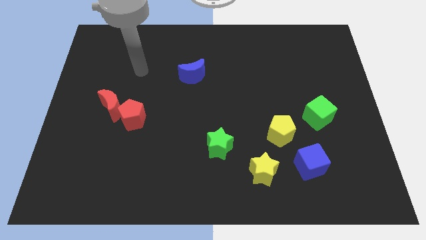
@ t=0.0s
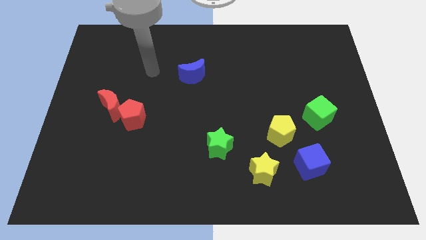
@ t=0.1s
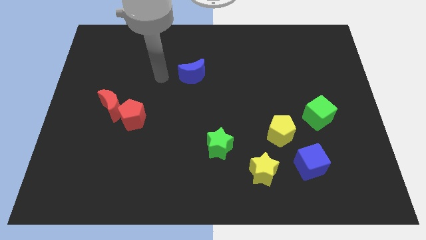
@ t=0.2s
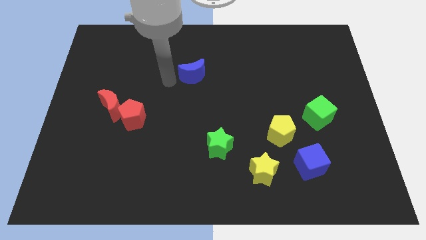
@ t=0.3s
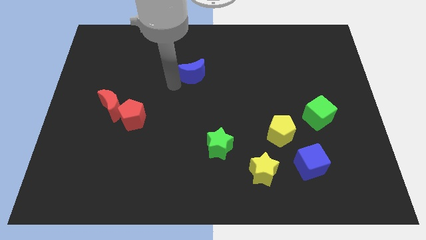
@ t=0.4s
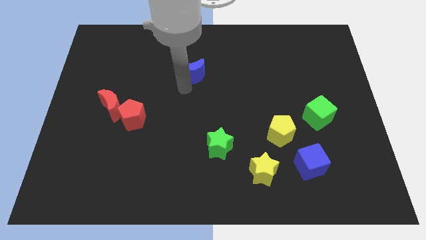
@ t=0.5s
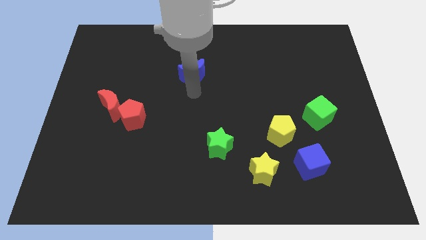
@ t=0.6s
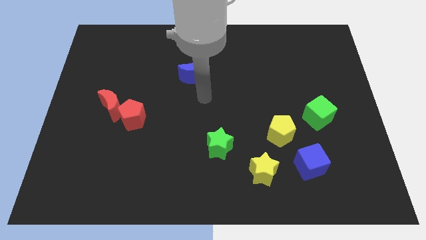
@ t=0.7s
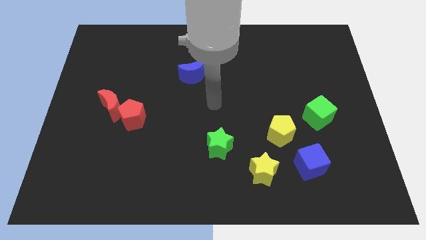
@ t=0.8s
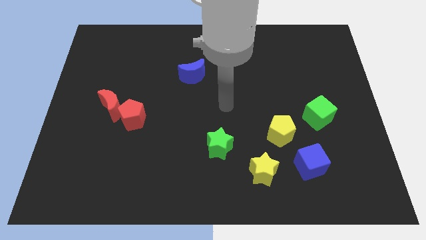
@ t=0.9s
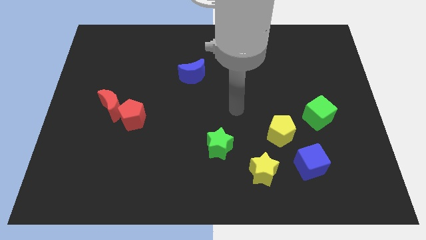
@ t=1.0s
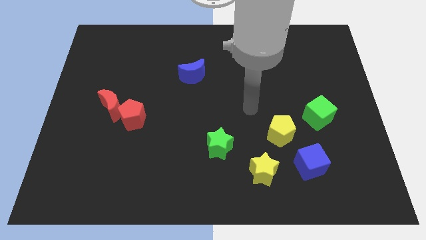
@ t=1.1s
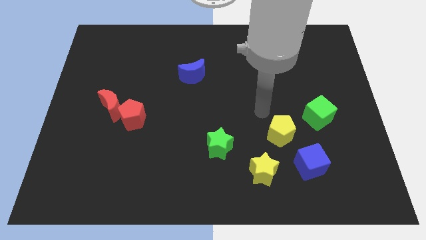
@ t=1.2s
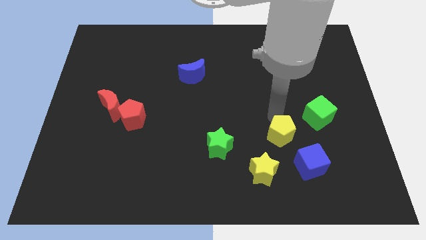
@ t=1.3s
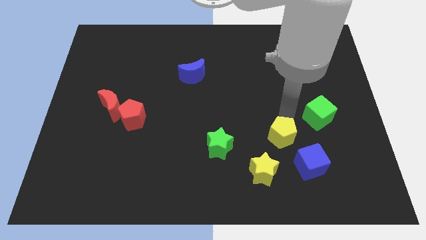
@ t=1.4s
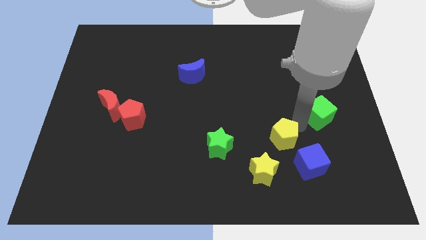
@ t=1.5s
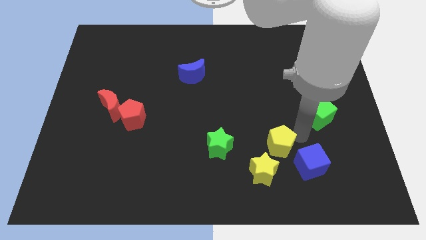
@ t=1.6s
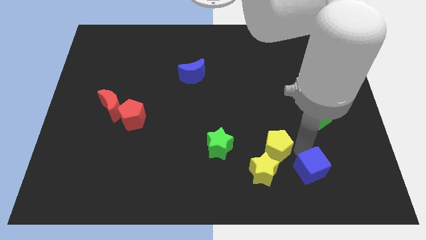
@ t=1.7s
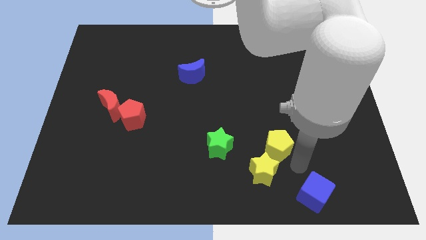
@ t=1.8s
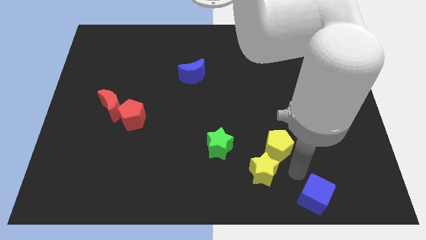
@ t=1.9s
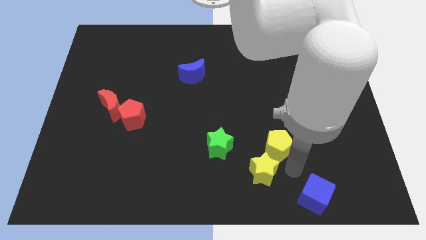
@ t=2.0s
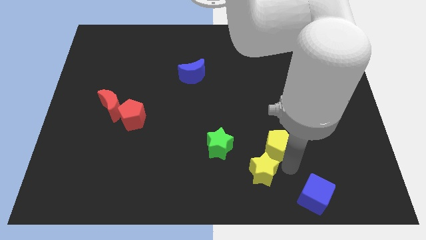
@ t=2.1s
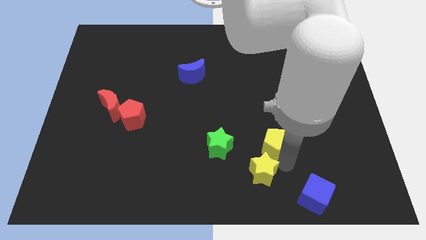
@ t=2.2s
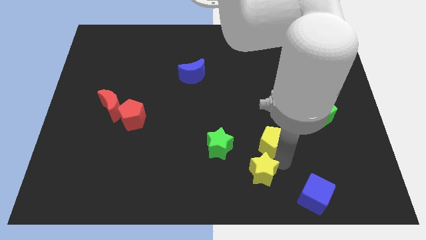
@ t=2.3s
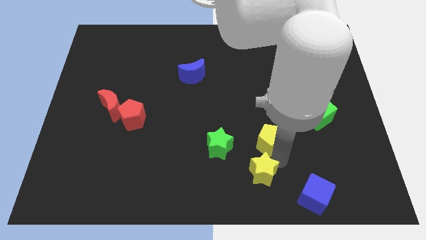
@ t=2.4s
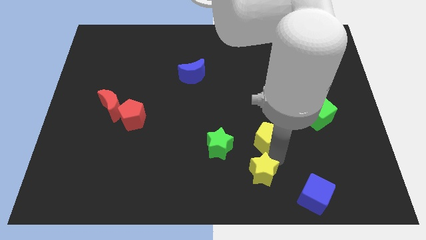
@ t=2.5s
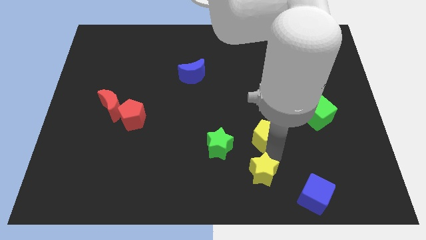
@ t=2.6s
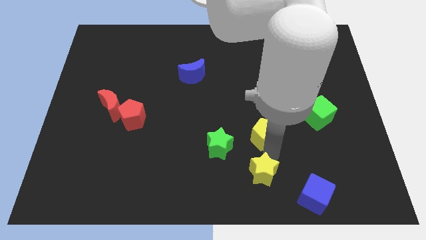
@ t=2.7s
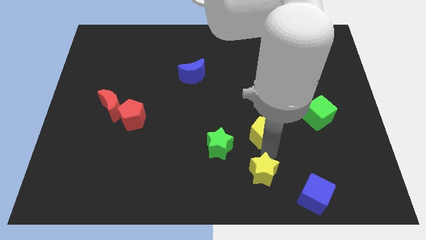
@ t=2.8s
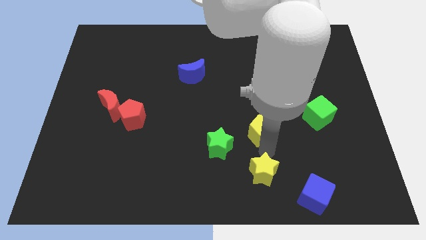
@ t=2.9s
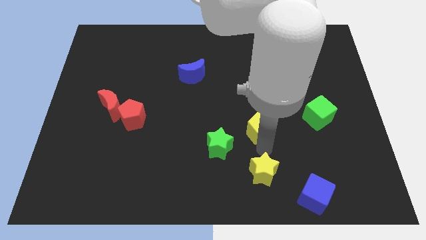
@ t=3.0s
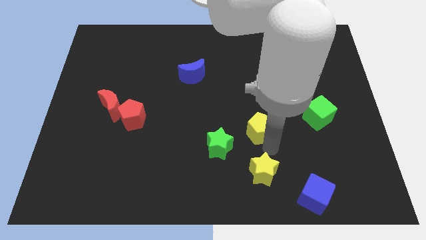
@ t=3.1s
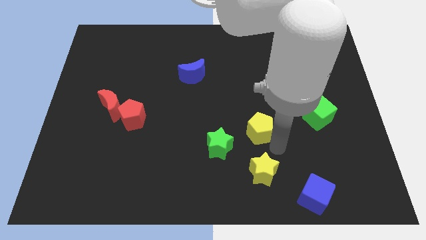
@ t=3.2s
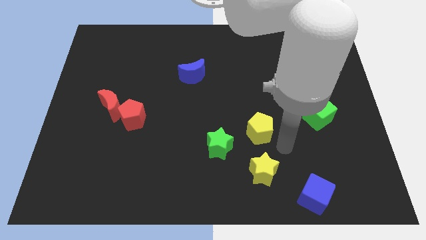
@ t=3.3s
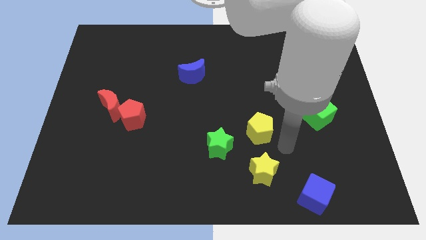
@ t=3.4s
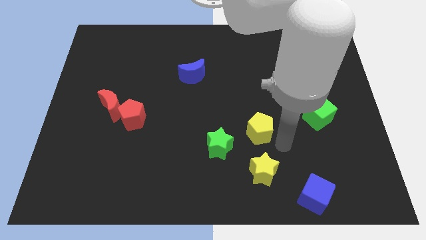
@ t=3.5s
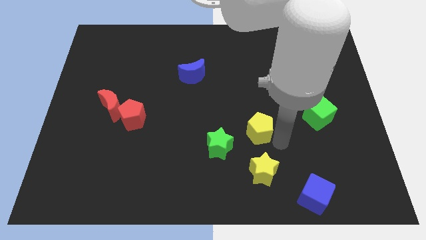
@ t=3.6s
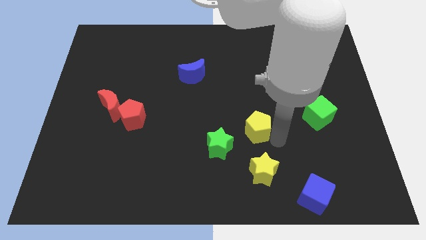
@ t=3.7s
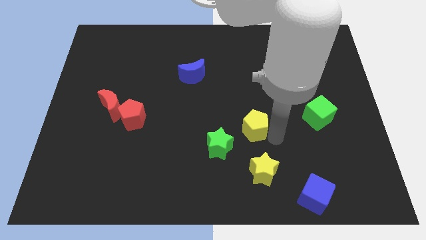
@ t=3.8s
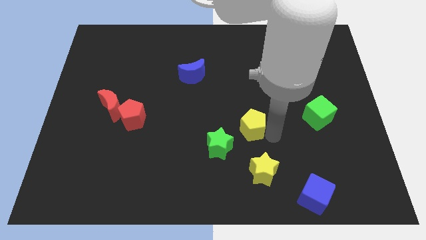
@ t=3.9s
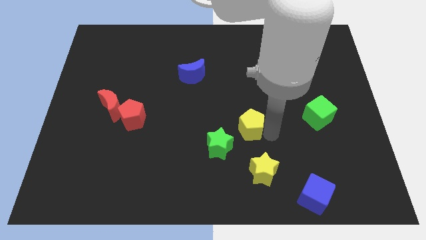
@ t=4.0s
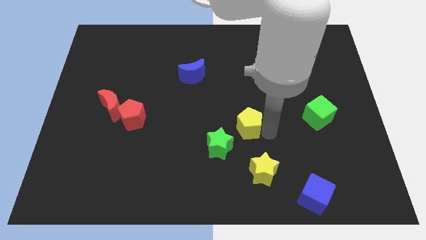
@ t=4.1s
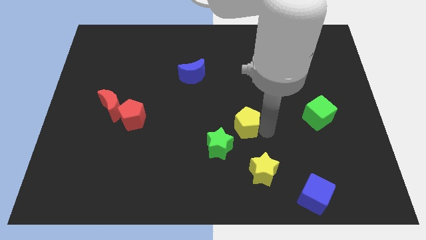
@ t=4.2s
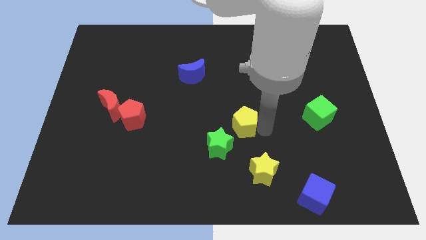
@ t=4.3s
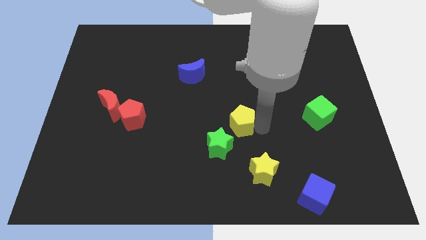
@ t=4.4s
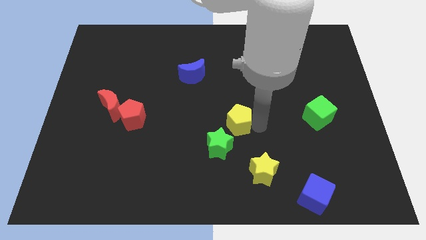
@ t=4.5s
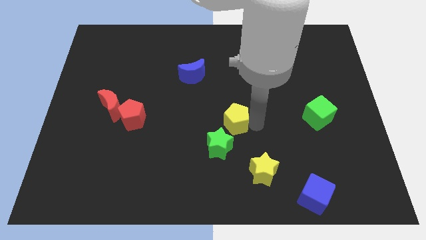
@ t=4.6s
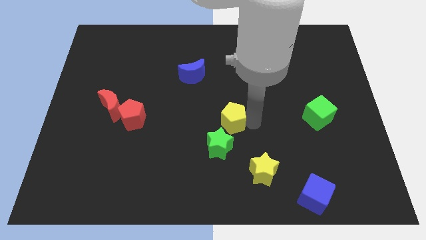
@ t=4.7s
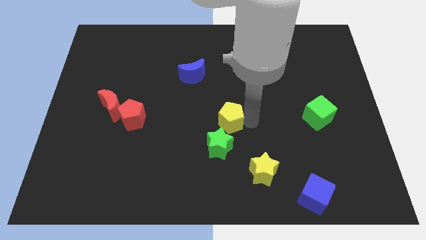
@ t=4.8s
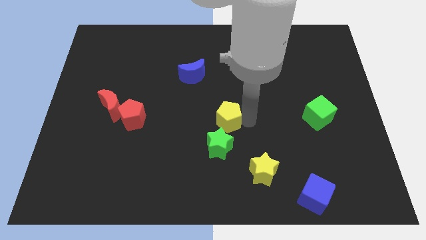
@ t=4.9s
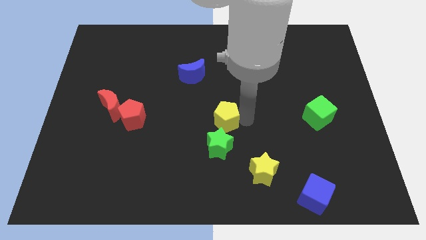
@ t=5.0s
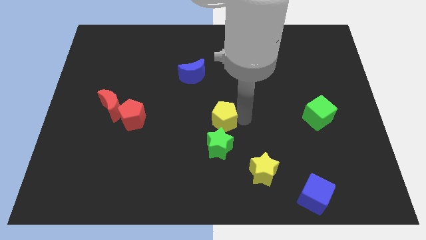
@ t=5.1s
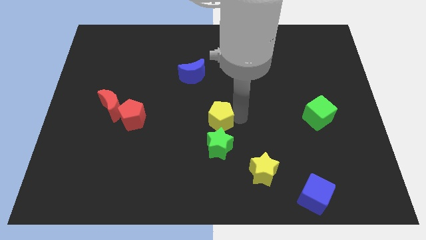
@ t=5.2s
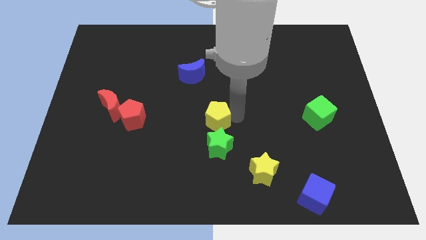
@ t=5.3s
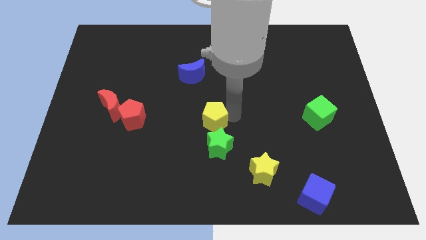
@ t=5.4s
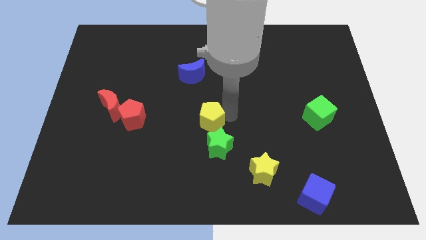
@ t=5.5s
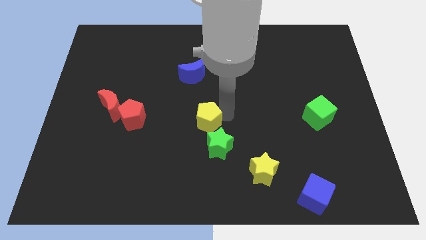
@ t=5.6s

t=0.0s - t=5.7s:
push the yellow pentagon to the bottom side of the blue moon

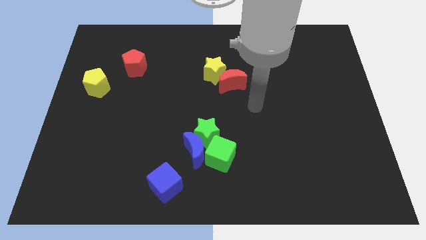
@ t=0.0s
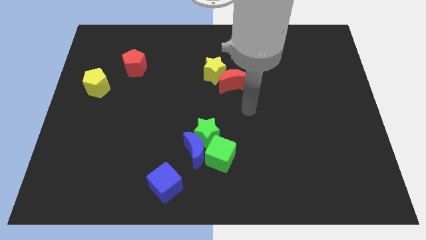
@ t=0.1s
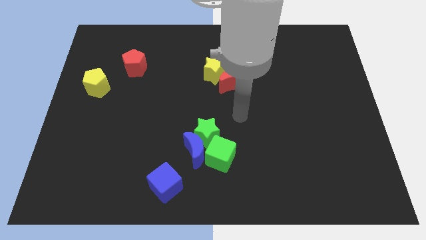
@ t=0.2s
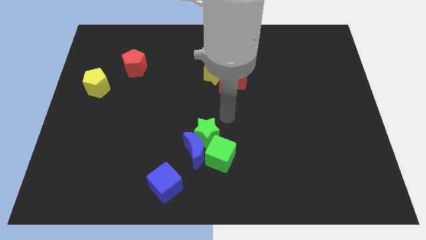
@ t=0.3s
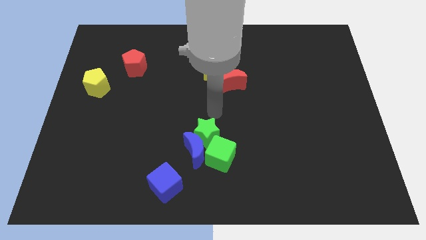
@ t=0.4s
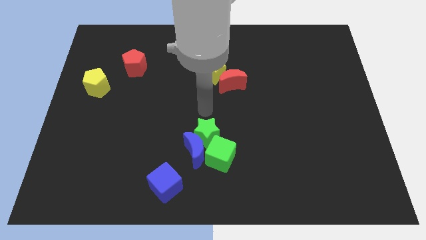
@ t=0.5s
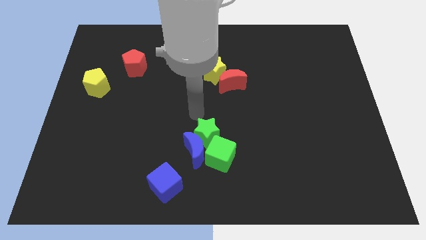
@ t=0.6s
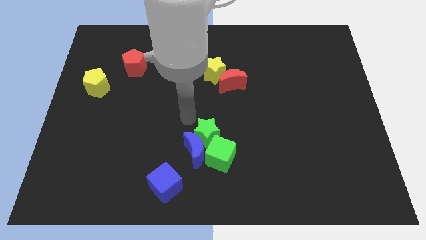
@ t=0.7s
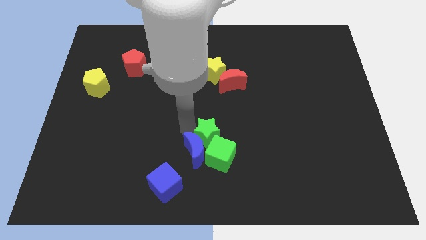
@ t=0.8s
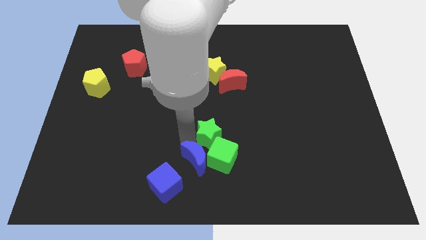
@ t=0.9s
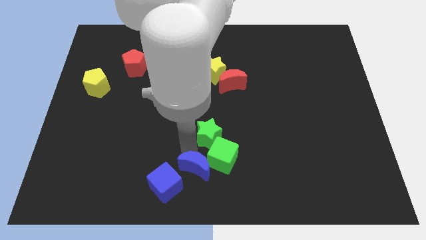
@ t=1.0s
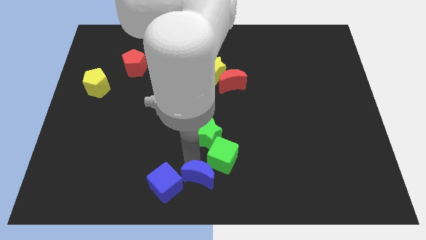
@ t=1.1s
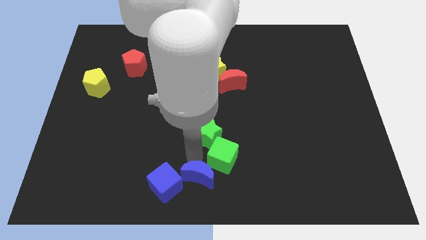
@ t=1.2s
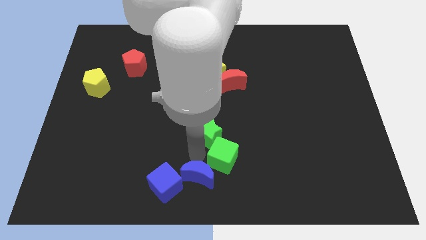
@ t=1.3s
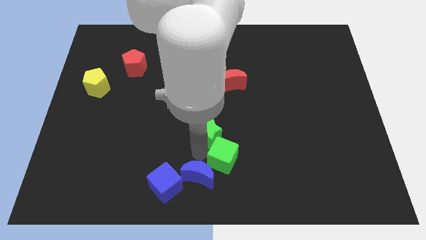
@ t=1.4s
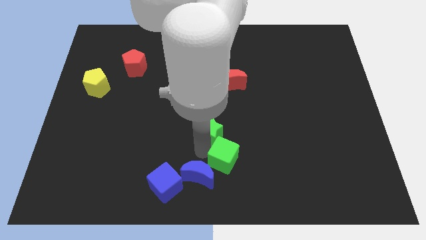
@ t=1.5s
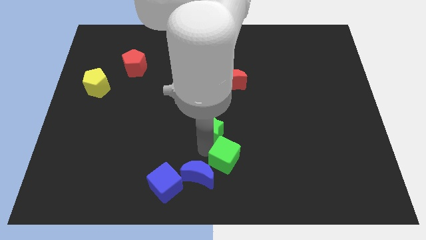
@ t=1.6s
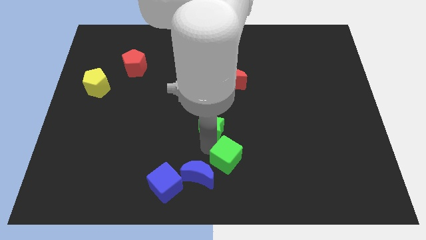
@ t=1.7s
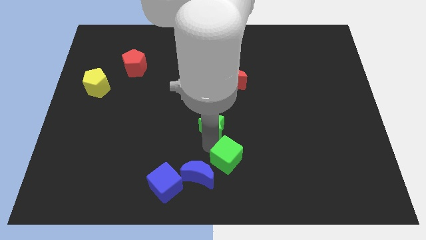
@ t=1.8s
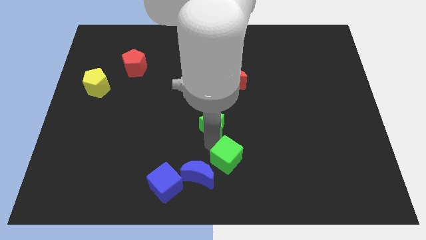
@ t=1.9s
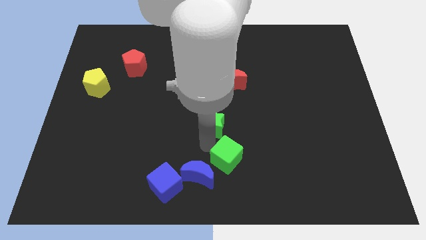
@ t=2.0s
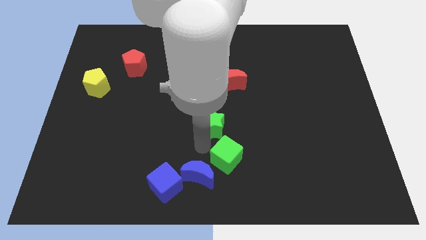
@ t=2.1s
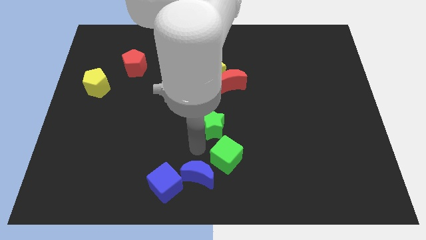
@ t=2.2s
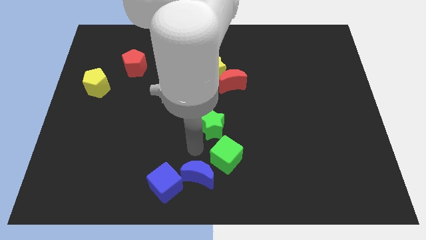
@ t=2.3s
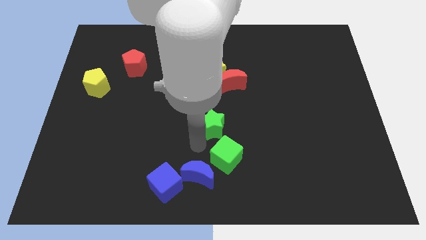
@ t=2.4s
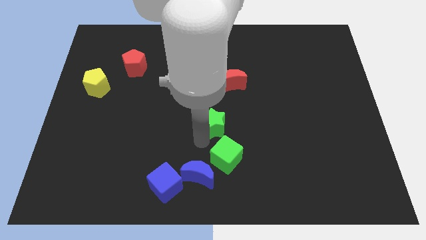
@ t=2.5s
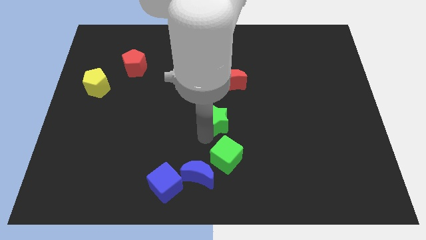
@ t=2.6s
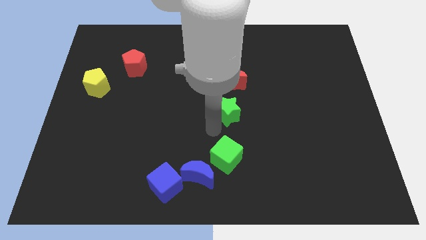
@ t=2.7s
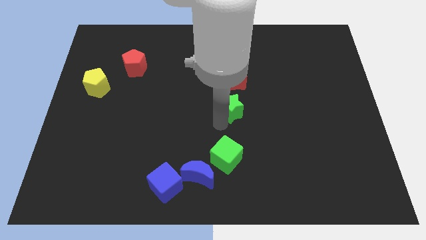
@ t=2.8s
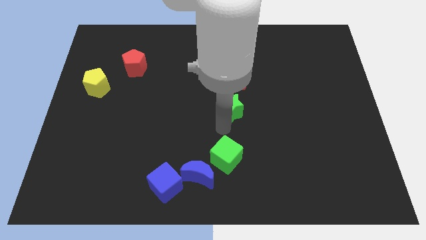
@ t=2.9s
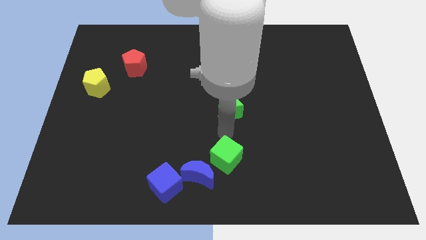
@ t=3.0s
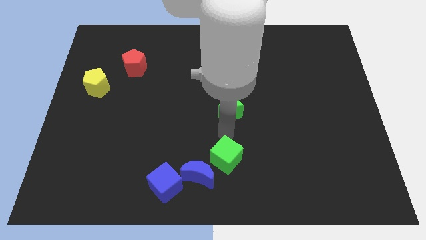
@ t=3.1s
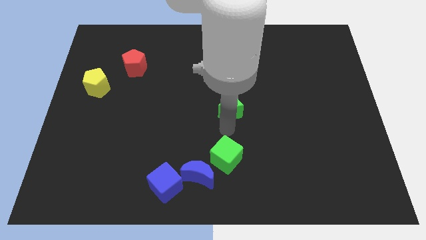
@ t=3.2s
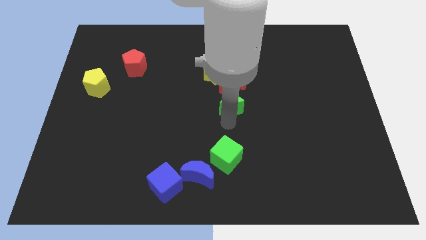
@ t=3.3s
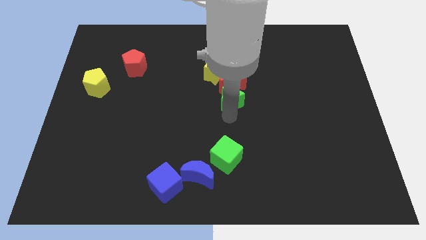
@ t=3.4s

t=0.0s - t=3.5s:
slide the green star diagonally down and to the right of the yellow star
